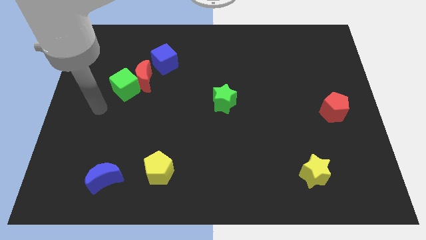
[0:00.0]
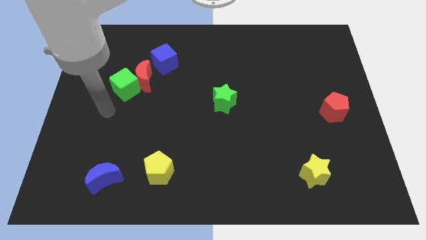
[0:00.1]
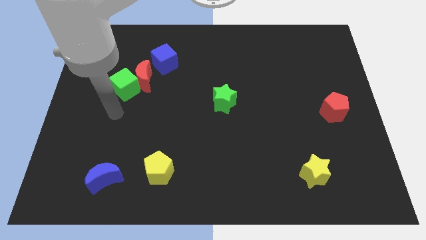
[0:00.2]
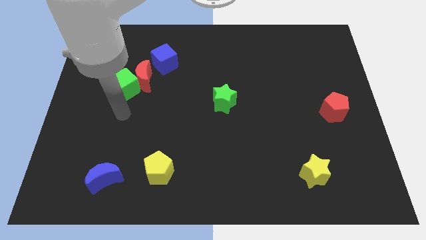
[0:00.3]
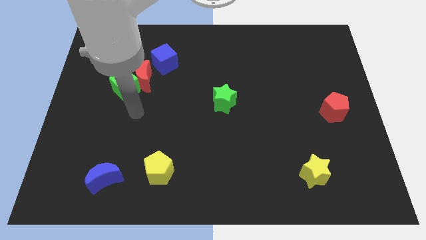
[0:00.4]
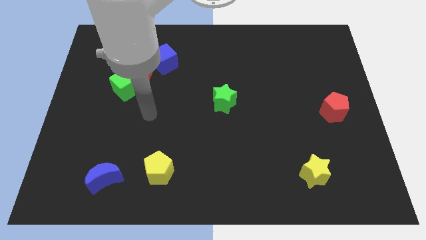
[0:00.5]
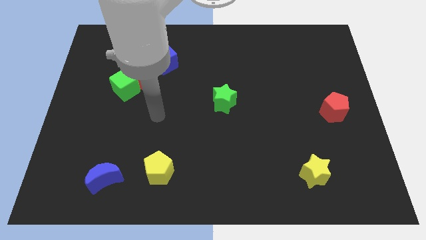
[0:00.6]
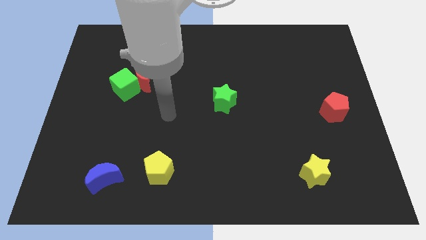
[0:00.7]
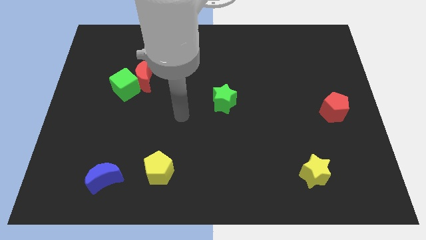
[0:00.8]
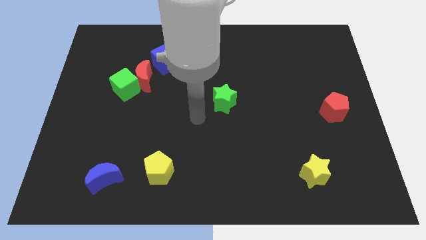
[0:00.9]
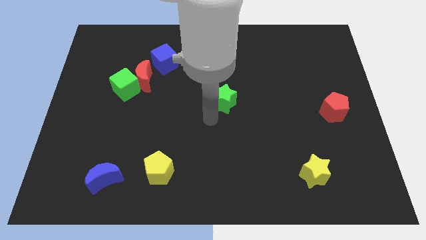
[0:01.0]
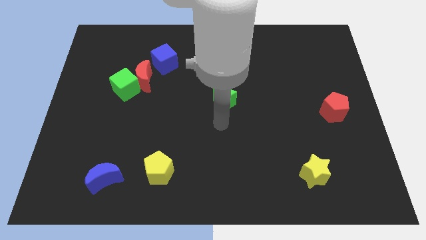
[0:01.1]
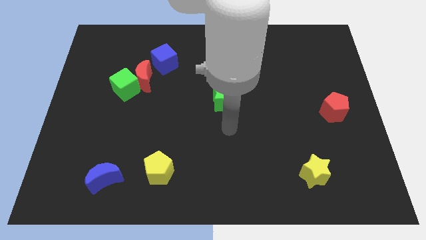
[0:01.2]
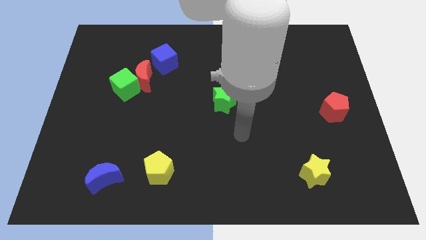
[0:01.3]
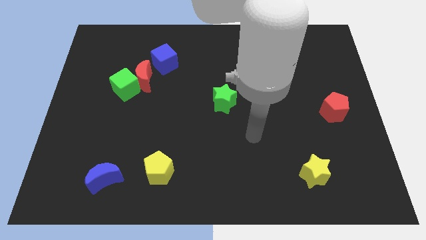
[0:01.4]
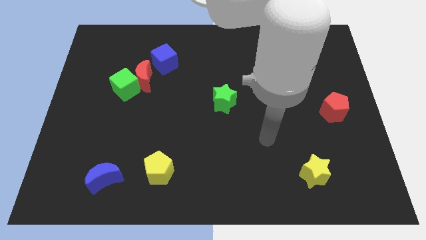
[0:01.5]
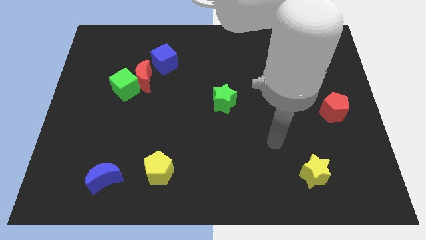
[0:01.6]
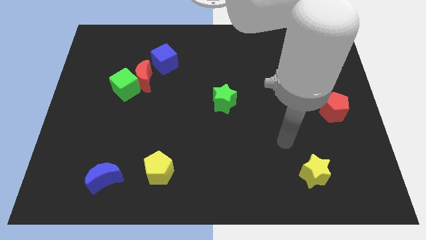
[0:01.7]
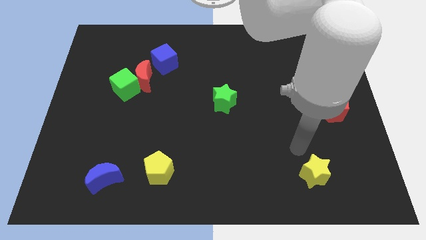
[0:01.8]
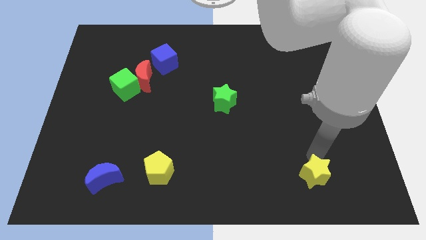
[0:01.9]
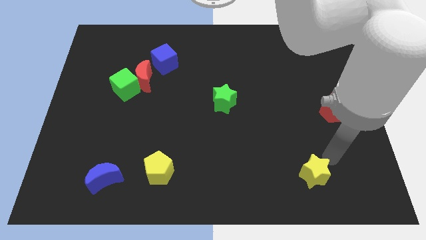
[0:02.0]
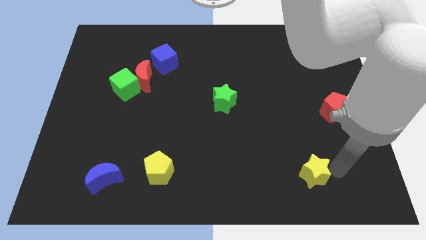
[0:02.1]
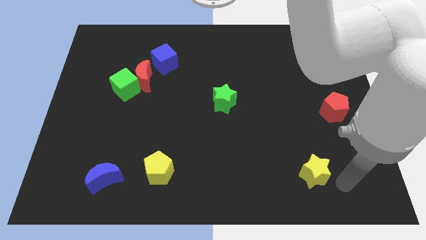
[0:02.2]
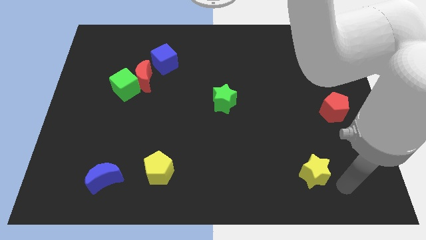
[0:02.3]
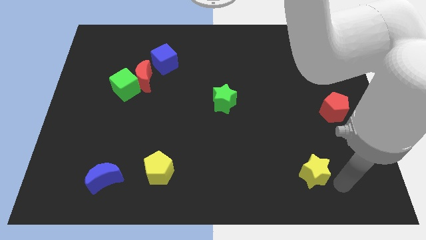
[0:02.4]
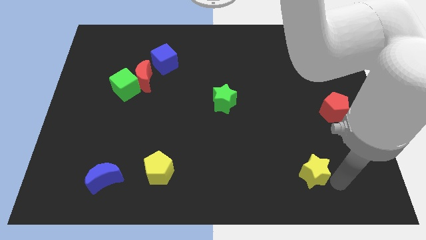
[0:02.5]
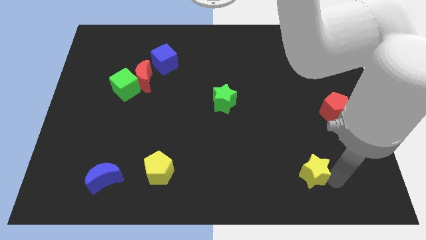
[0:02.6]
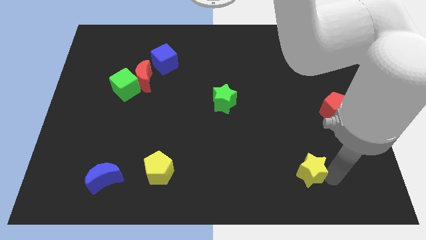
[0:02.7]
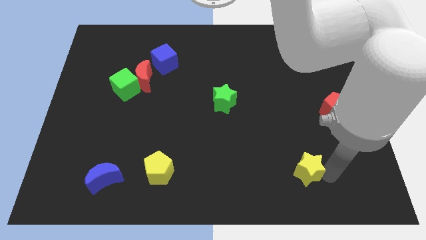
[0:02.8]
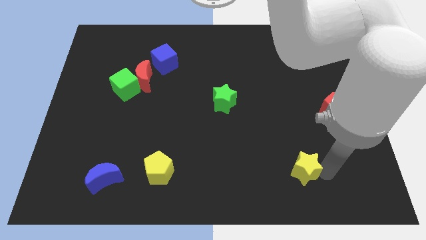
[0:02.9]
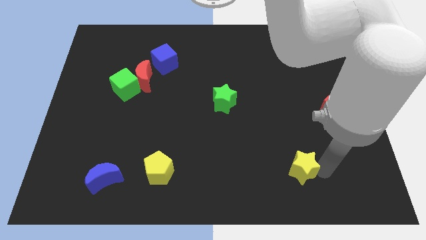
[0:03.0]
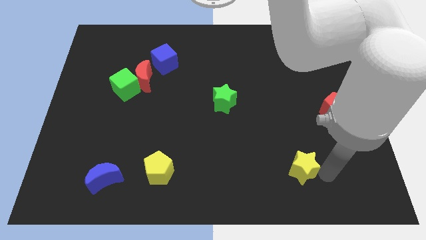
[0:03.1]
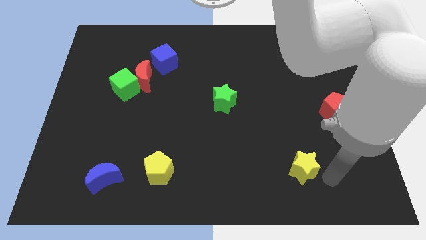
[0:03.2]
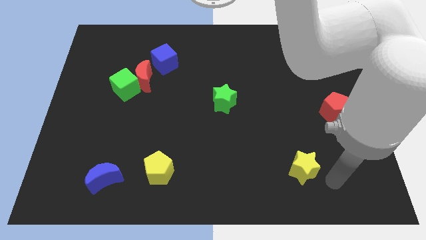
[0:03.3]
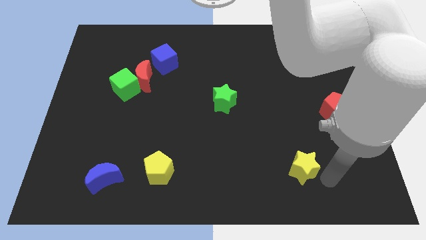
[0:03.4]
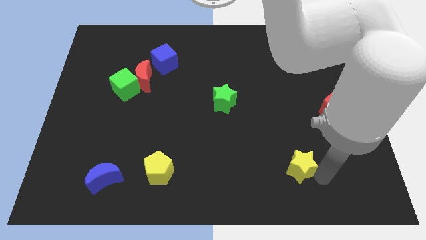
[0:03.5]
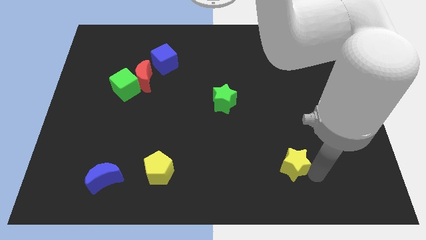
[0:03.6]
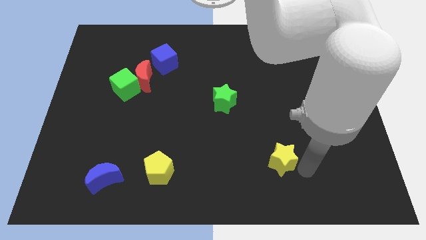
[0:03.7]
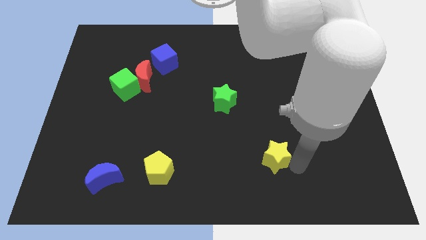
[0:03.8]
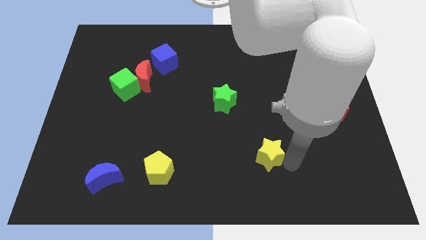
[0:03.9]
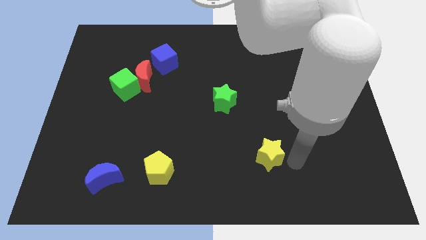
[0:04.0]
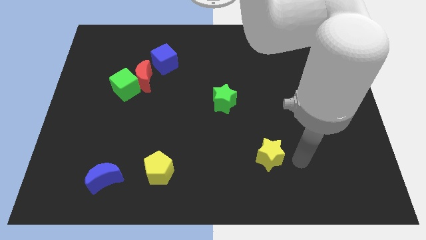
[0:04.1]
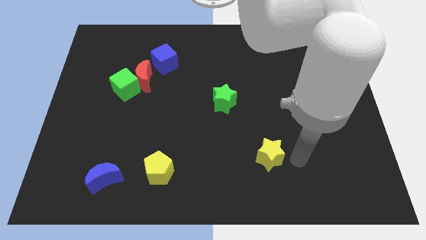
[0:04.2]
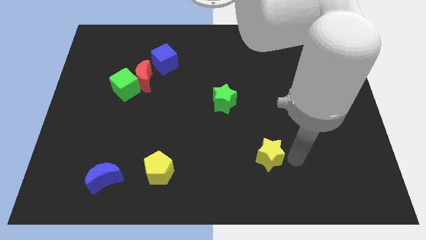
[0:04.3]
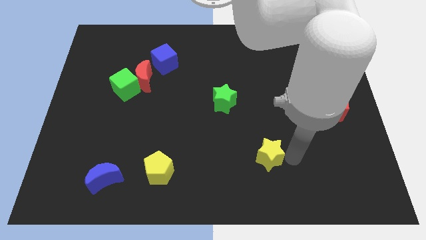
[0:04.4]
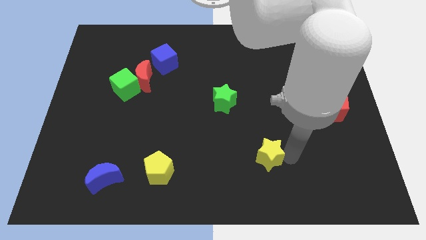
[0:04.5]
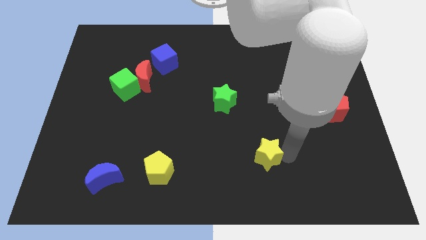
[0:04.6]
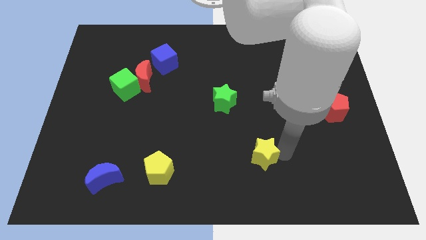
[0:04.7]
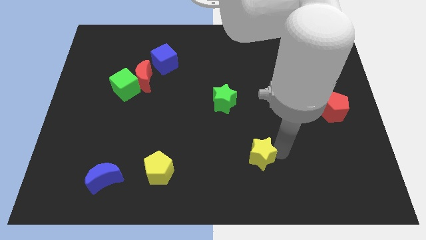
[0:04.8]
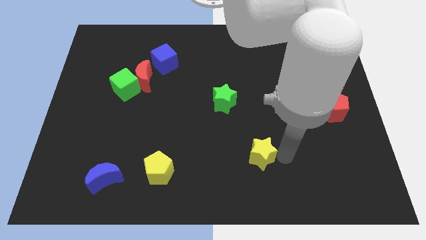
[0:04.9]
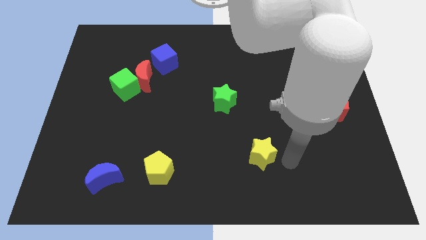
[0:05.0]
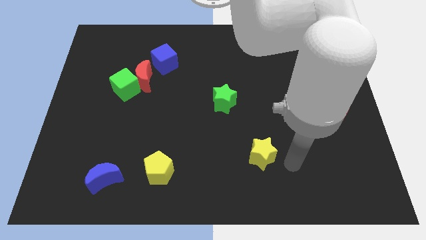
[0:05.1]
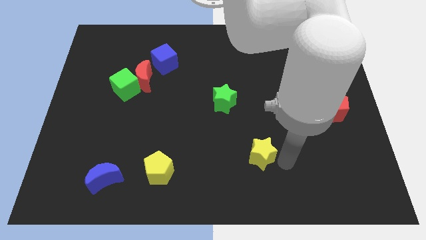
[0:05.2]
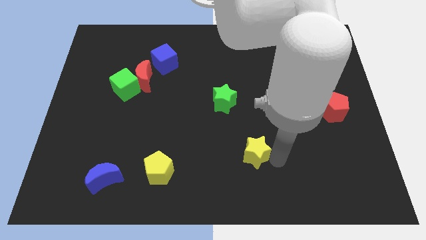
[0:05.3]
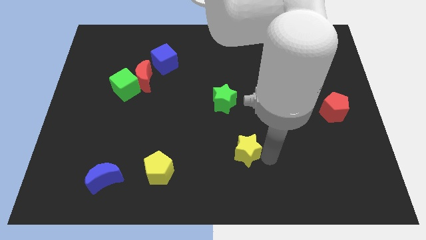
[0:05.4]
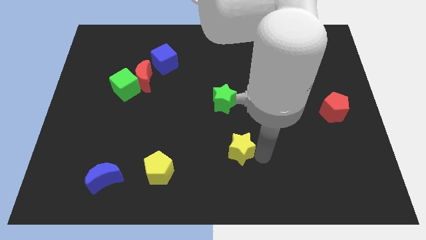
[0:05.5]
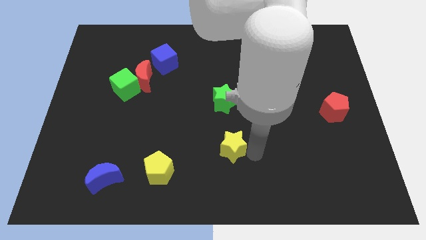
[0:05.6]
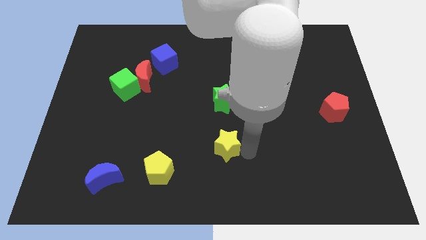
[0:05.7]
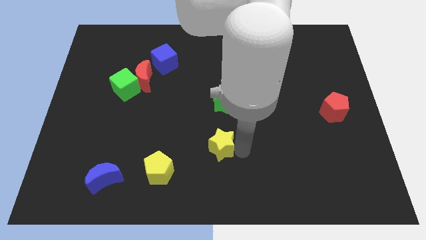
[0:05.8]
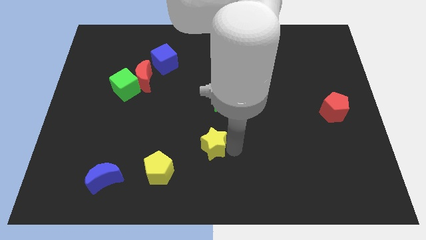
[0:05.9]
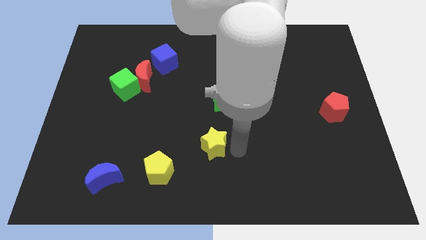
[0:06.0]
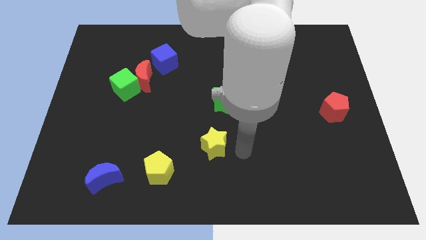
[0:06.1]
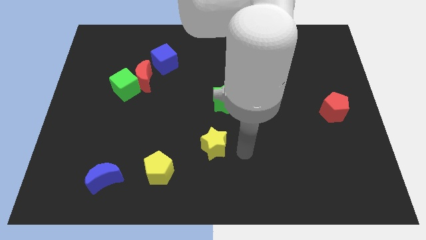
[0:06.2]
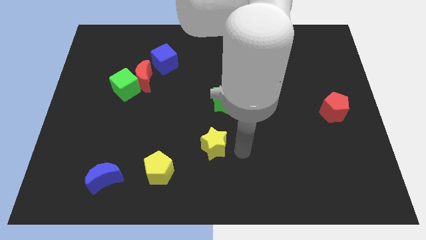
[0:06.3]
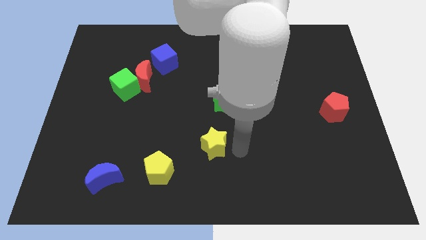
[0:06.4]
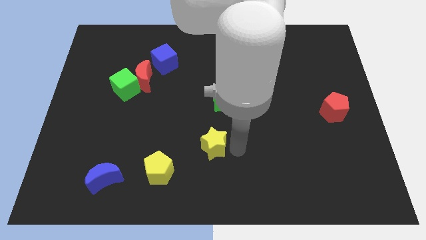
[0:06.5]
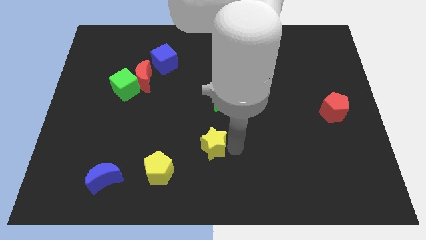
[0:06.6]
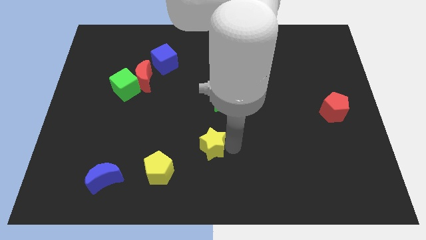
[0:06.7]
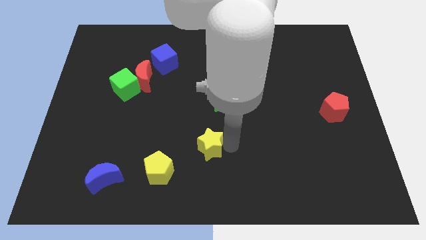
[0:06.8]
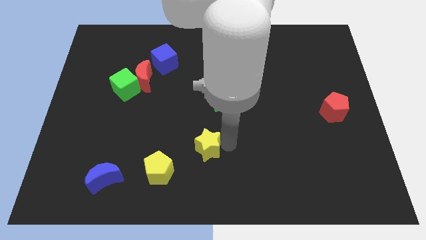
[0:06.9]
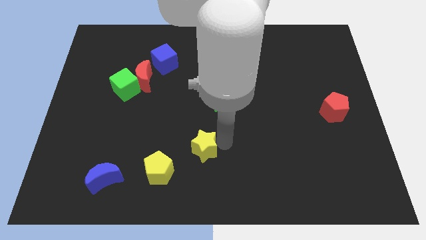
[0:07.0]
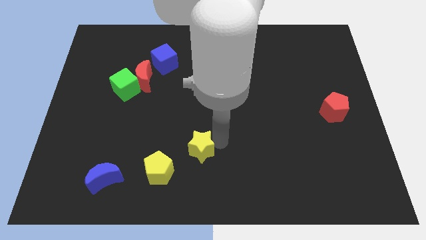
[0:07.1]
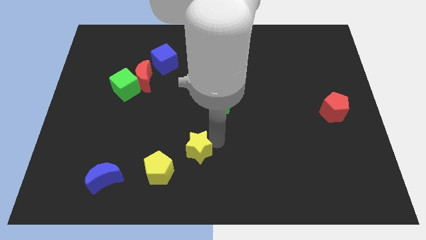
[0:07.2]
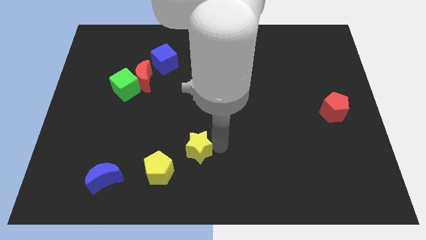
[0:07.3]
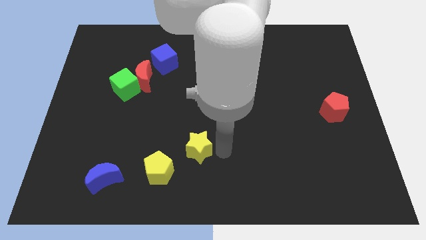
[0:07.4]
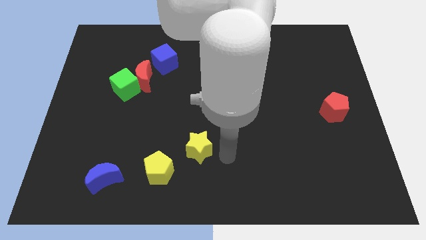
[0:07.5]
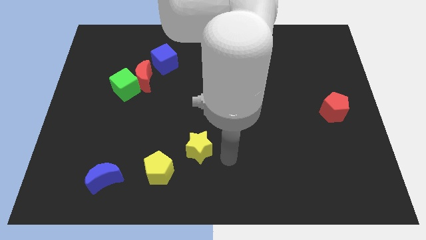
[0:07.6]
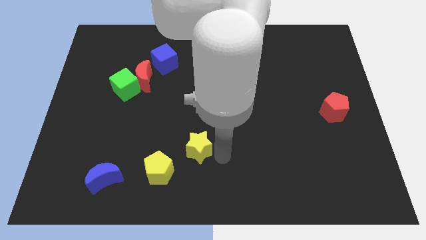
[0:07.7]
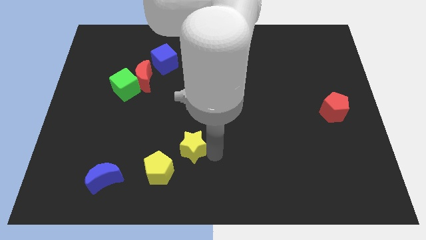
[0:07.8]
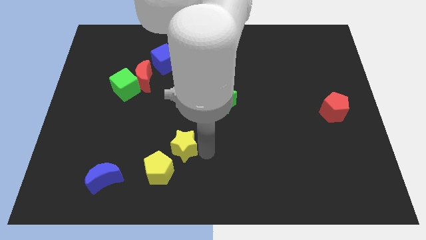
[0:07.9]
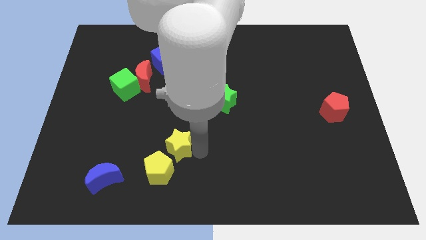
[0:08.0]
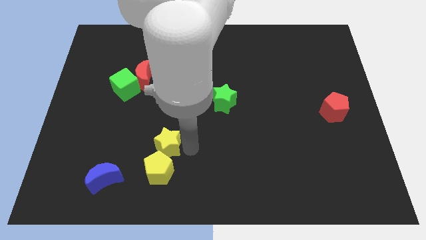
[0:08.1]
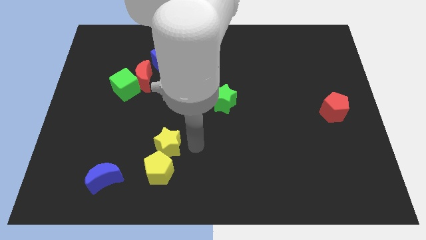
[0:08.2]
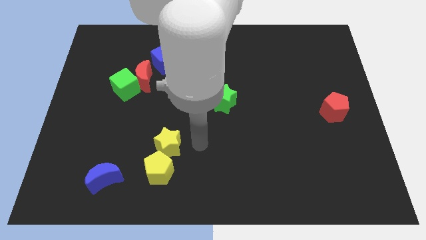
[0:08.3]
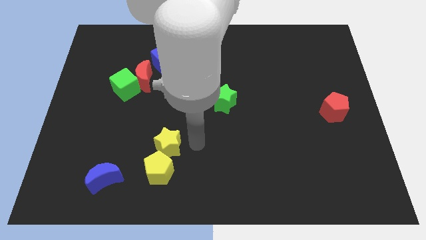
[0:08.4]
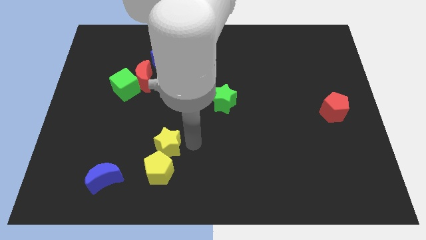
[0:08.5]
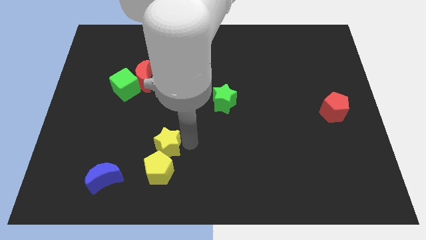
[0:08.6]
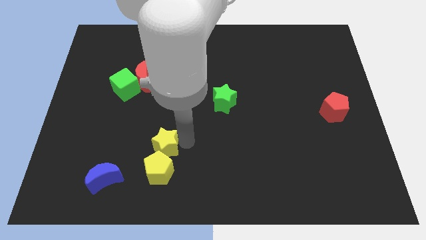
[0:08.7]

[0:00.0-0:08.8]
push the yellow star to the top left of the yellow pentagon
